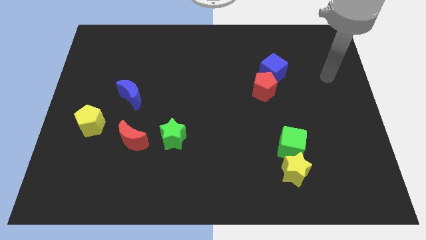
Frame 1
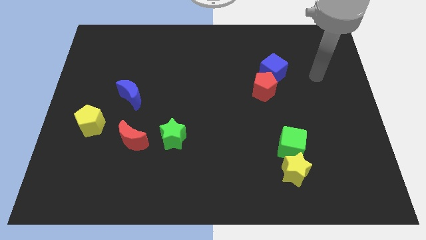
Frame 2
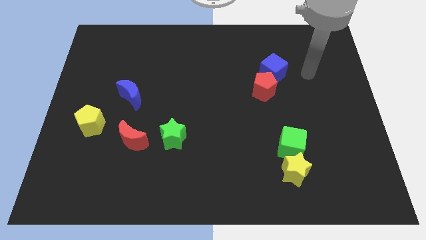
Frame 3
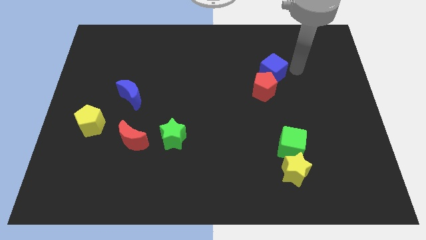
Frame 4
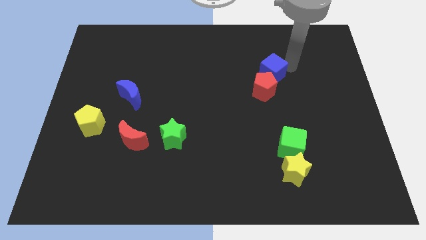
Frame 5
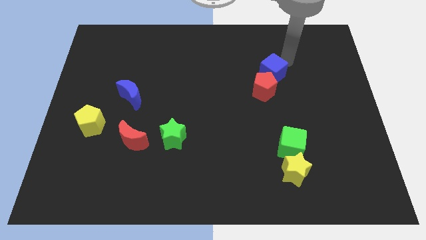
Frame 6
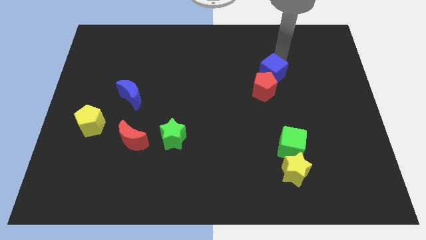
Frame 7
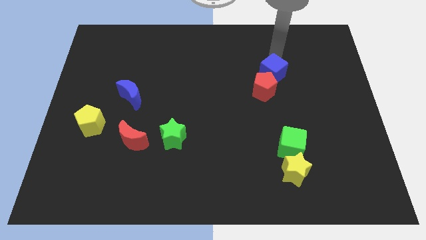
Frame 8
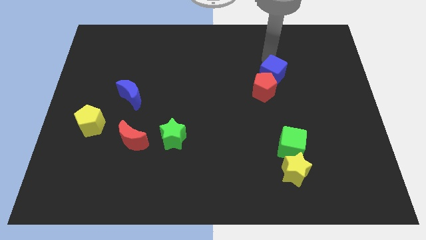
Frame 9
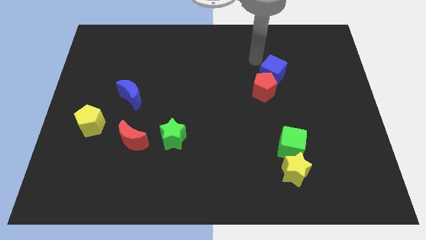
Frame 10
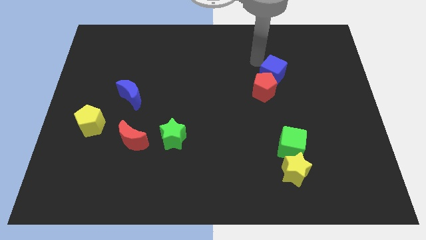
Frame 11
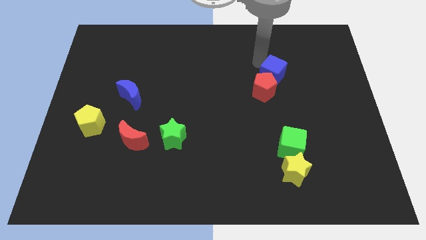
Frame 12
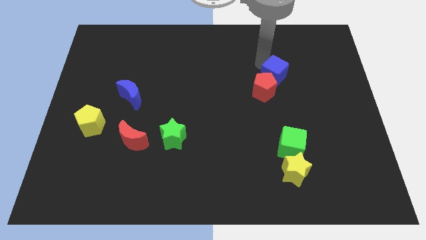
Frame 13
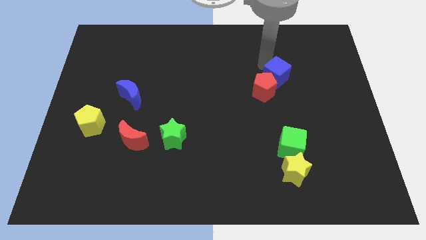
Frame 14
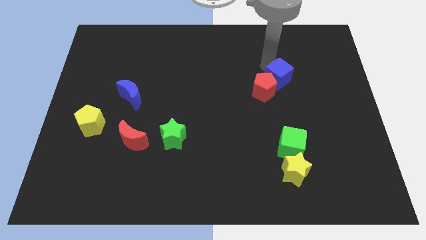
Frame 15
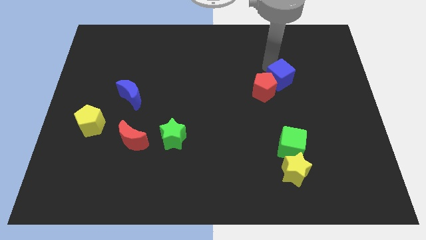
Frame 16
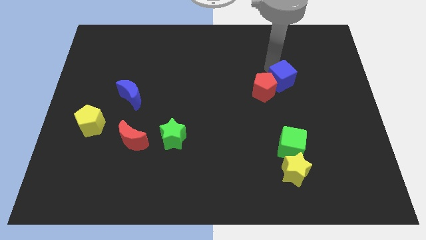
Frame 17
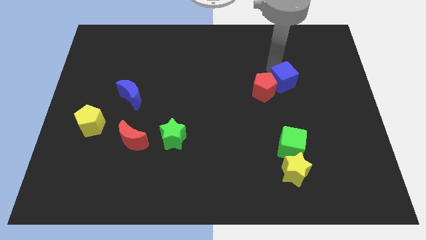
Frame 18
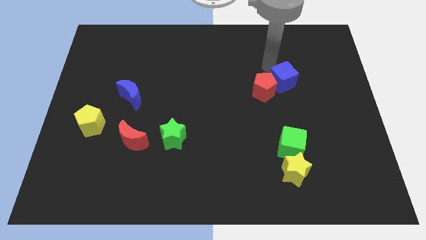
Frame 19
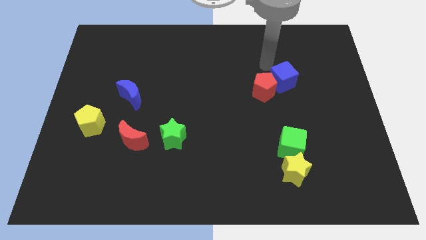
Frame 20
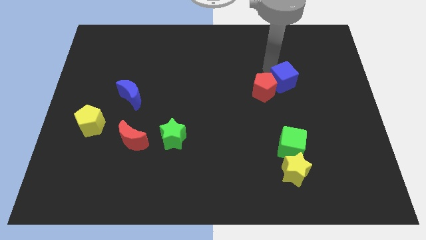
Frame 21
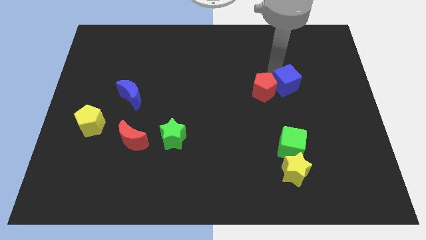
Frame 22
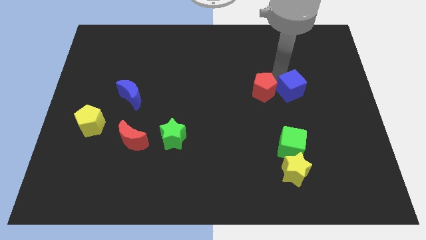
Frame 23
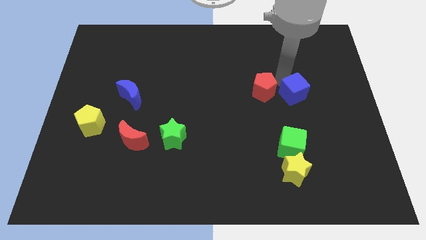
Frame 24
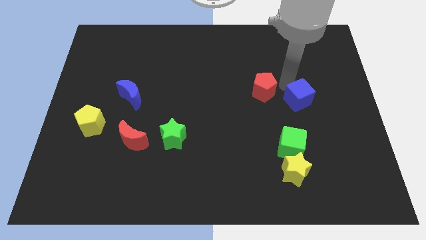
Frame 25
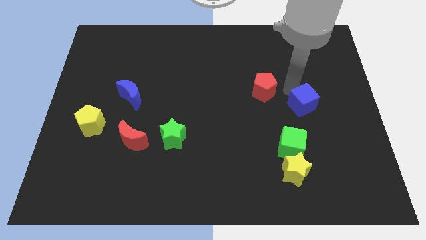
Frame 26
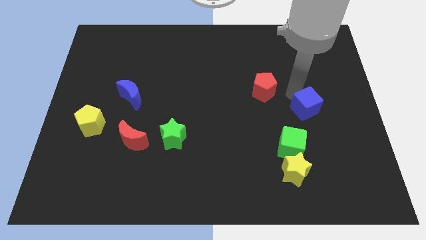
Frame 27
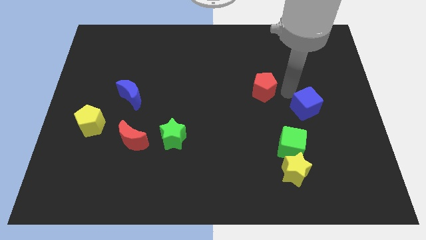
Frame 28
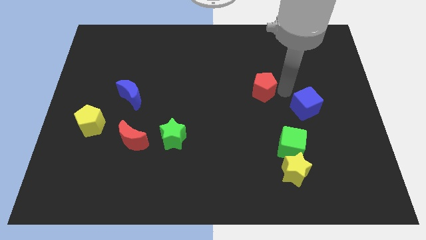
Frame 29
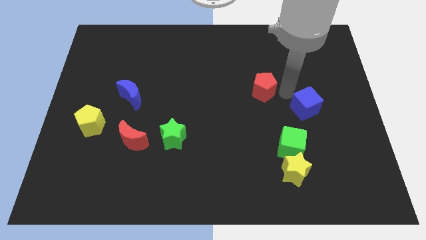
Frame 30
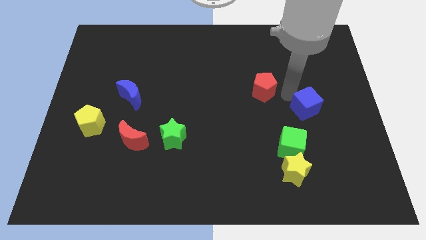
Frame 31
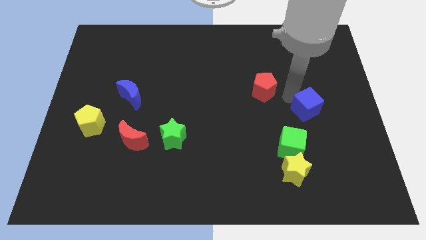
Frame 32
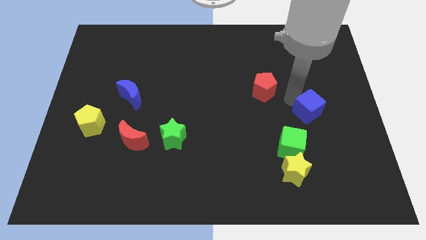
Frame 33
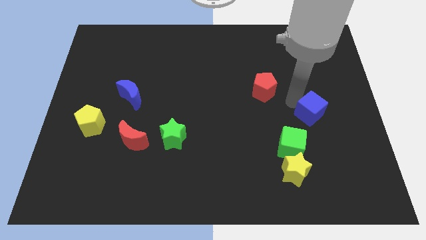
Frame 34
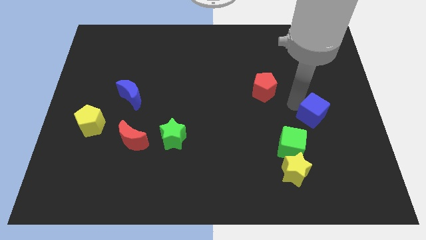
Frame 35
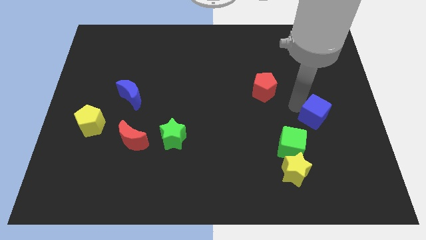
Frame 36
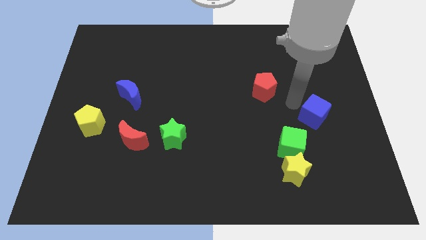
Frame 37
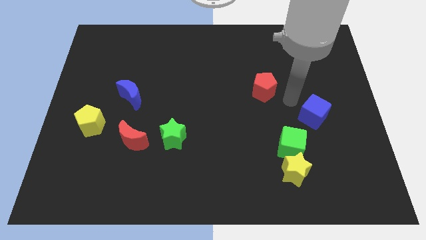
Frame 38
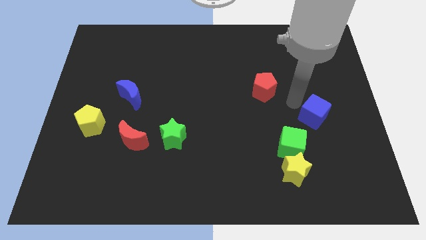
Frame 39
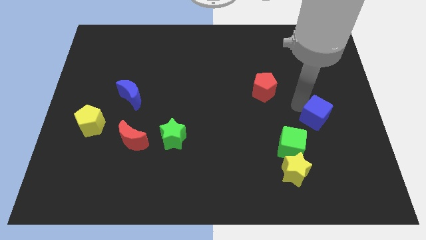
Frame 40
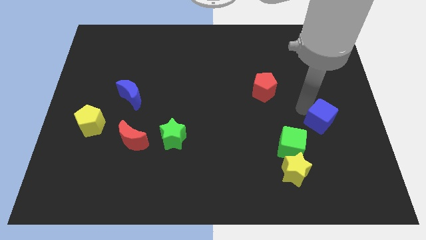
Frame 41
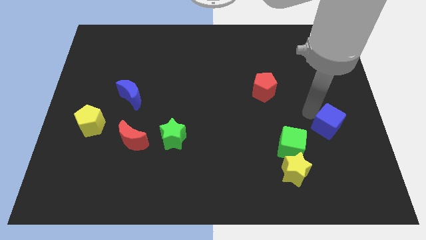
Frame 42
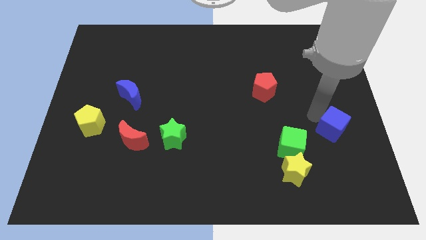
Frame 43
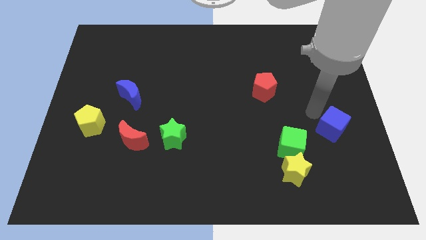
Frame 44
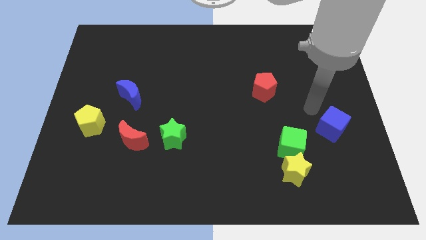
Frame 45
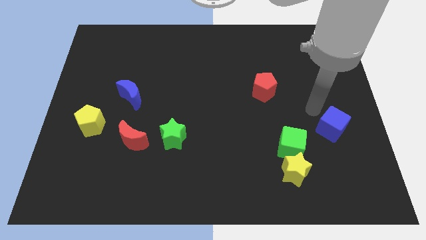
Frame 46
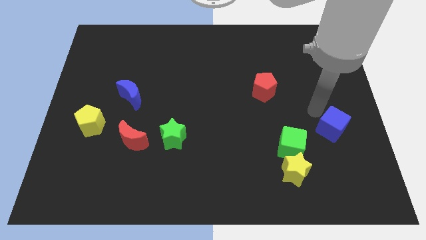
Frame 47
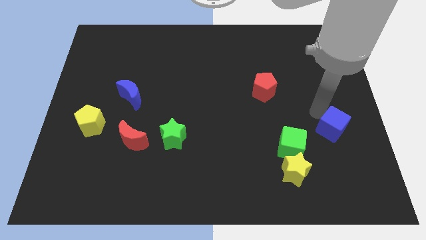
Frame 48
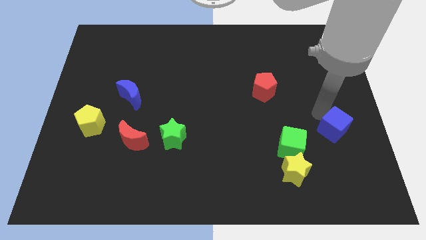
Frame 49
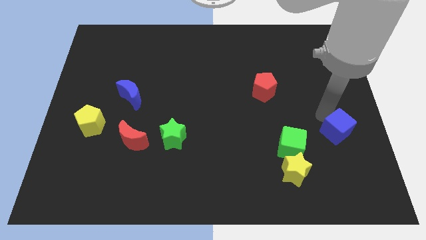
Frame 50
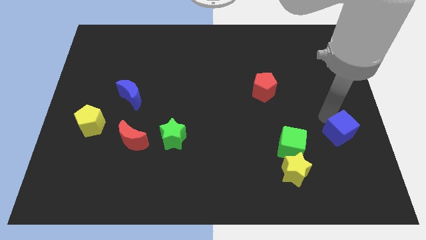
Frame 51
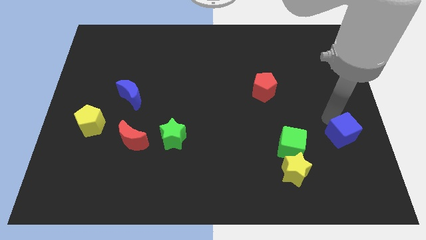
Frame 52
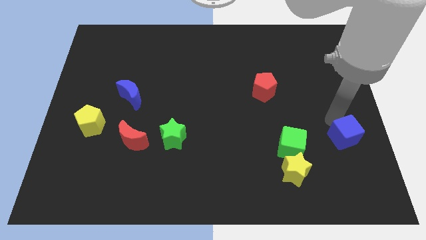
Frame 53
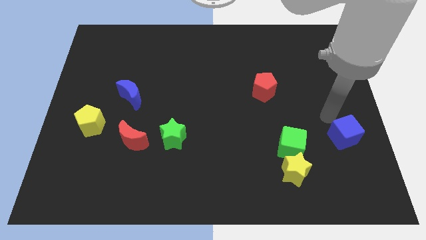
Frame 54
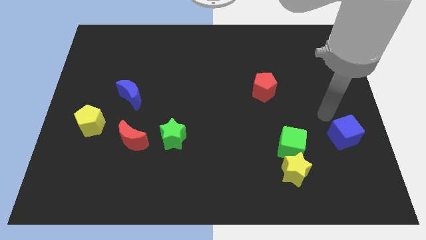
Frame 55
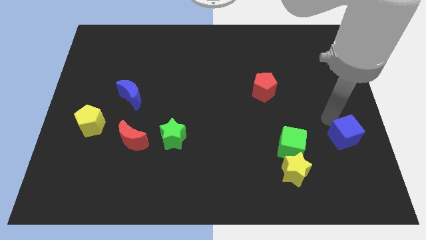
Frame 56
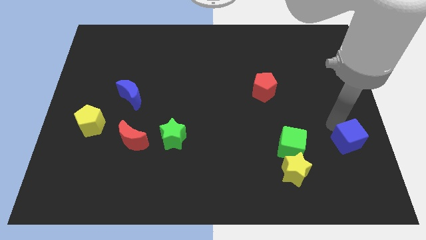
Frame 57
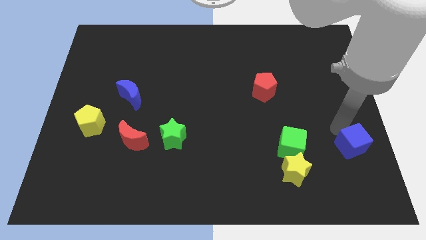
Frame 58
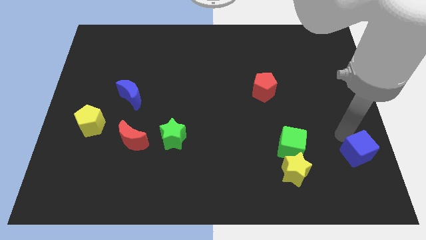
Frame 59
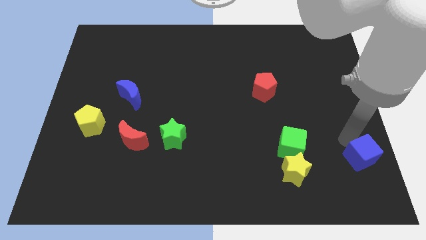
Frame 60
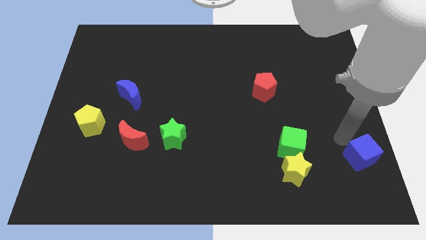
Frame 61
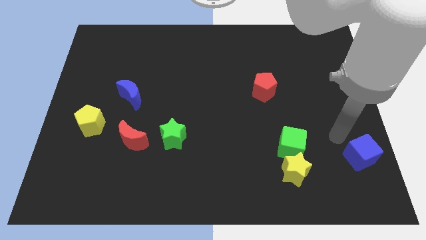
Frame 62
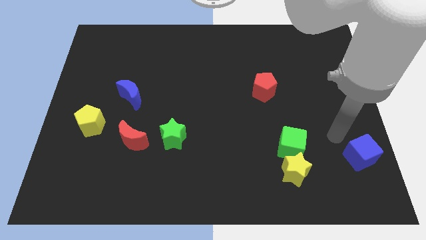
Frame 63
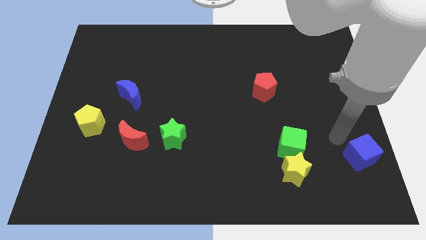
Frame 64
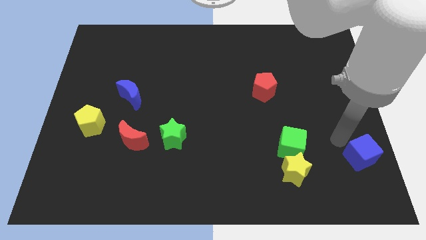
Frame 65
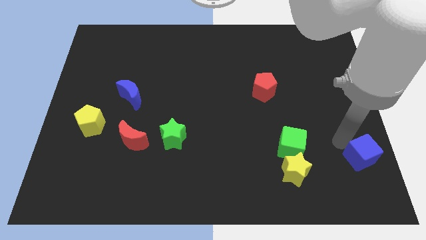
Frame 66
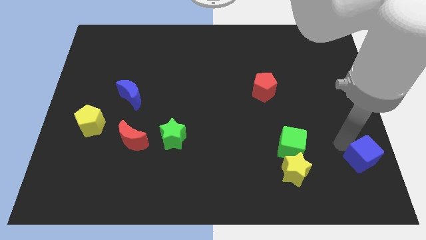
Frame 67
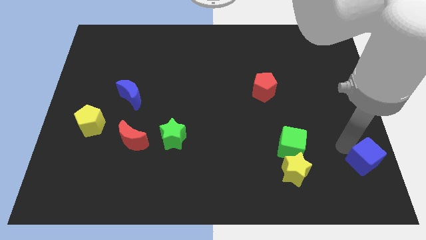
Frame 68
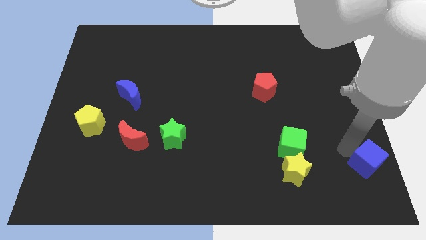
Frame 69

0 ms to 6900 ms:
put the blue cube to the bottom right corner
